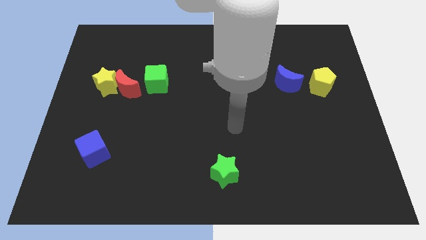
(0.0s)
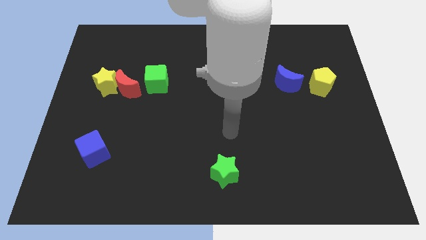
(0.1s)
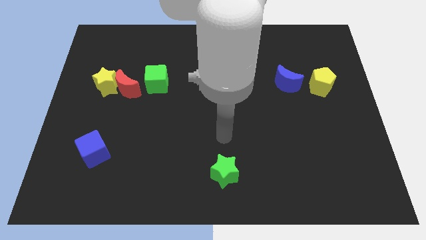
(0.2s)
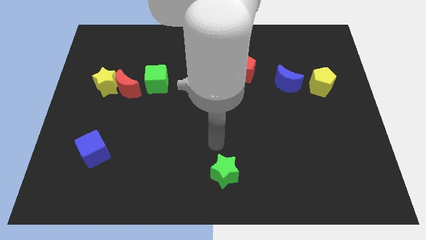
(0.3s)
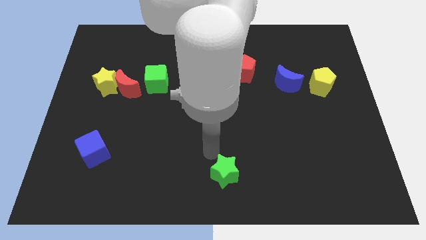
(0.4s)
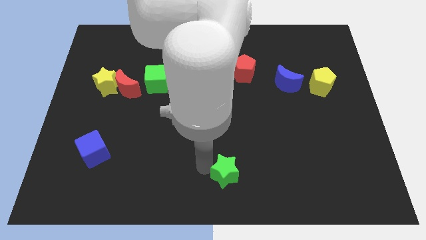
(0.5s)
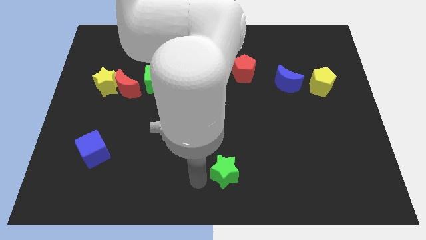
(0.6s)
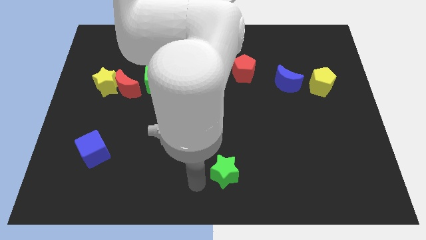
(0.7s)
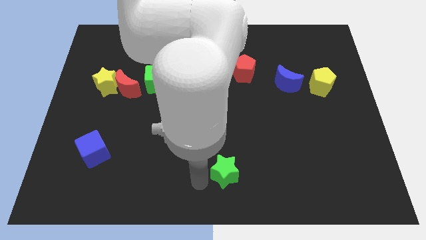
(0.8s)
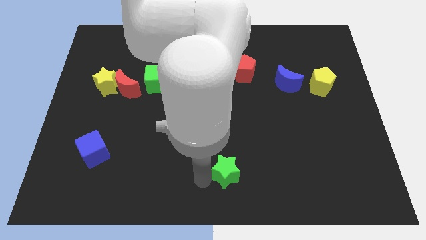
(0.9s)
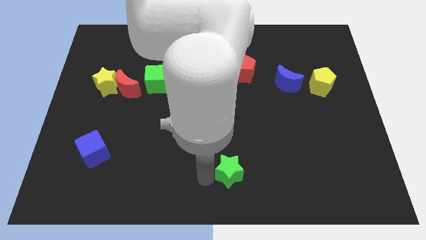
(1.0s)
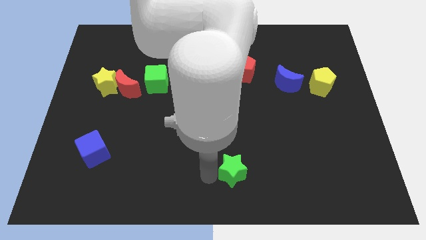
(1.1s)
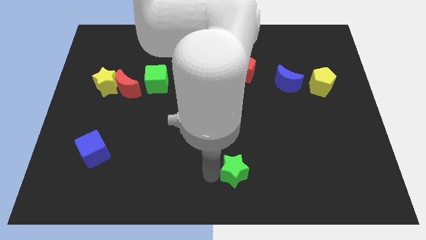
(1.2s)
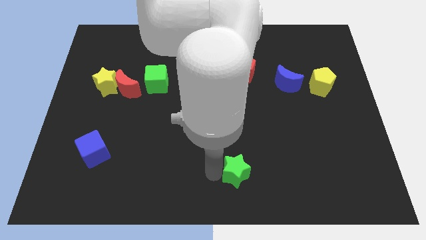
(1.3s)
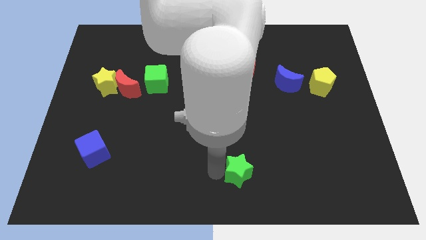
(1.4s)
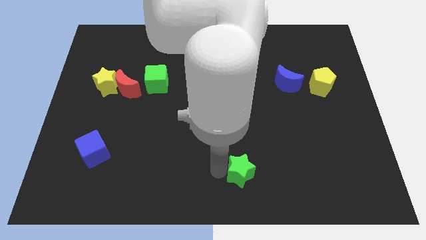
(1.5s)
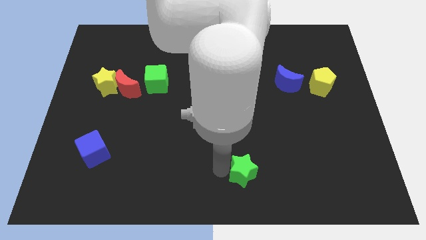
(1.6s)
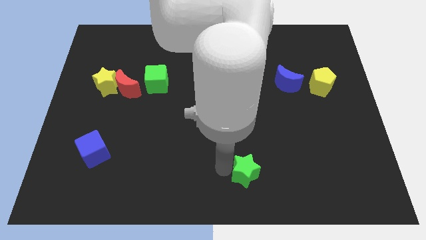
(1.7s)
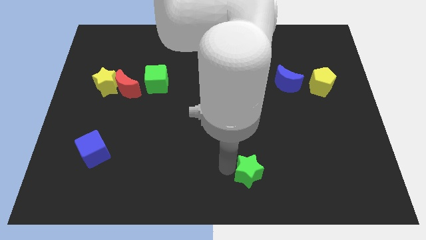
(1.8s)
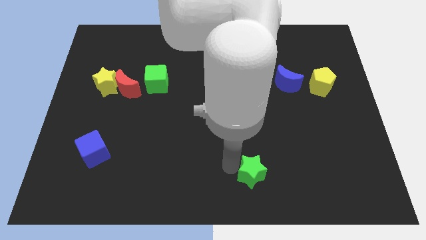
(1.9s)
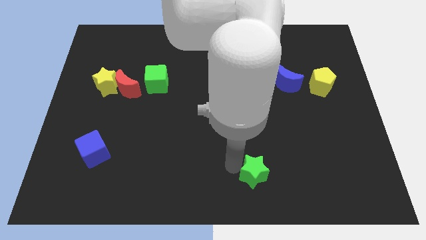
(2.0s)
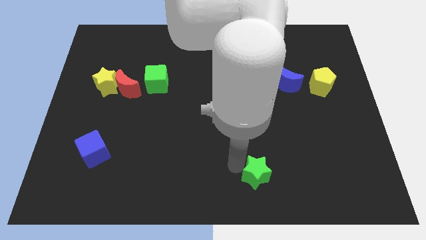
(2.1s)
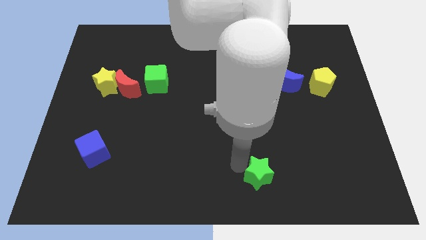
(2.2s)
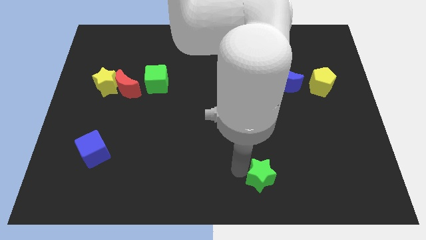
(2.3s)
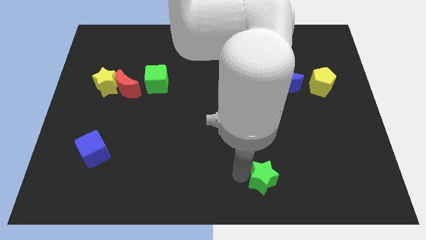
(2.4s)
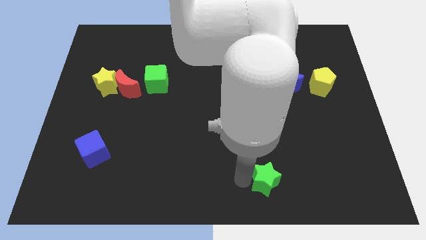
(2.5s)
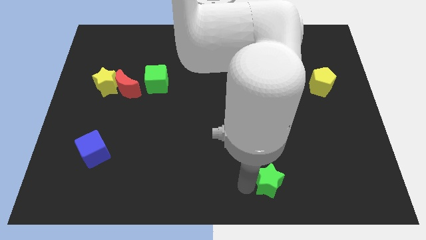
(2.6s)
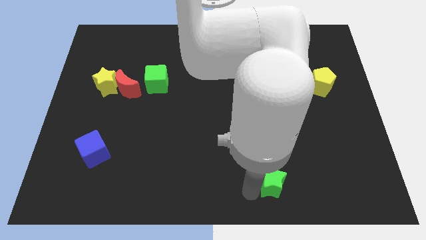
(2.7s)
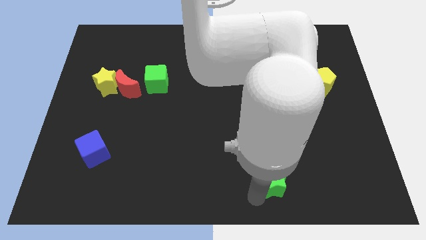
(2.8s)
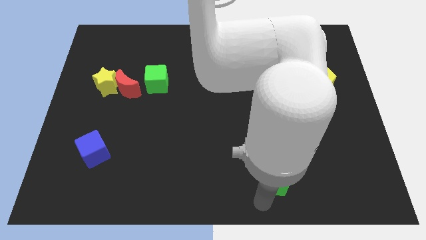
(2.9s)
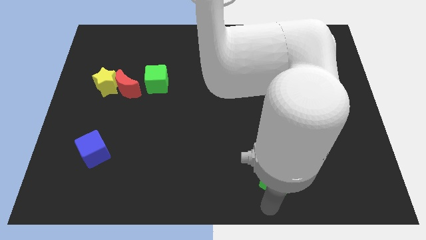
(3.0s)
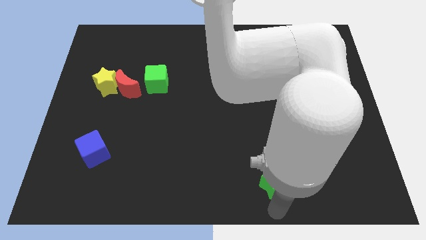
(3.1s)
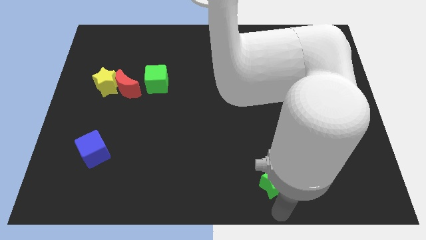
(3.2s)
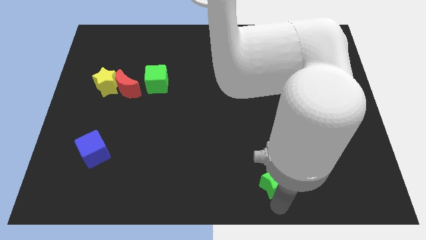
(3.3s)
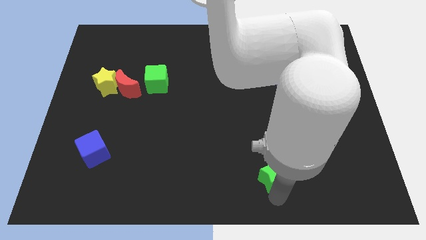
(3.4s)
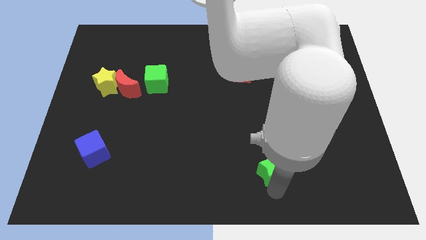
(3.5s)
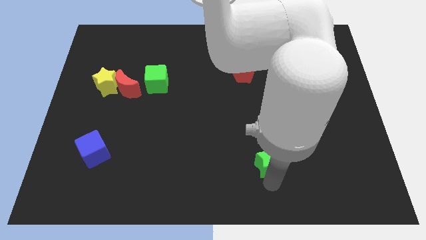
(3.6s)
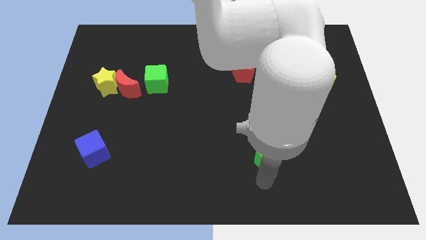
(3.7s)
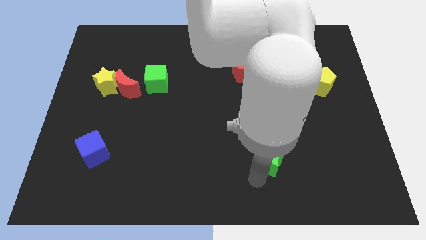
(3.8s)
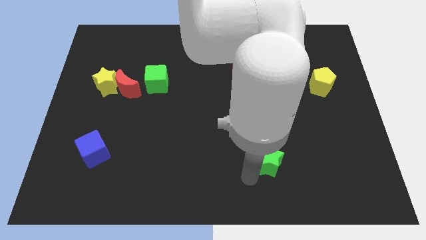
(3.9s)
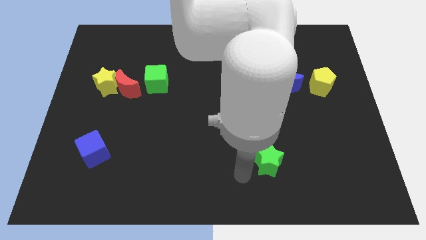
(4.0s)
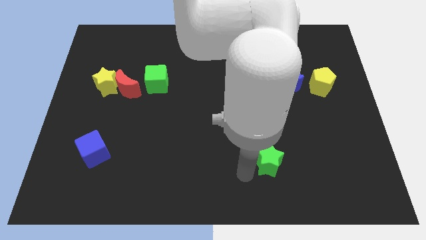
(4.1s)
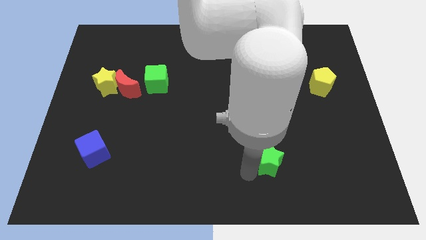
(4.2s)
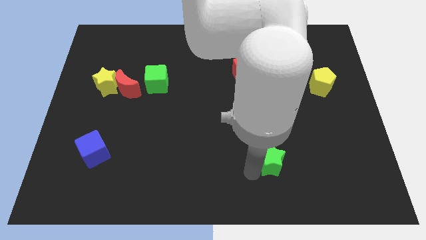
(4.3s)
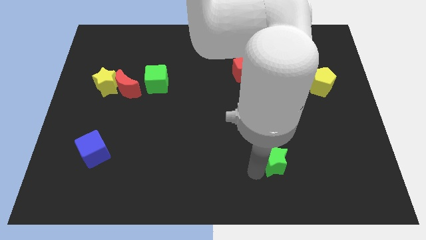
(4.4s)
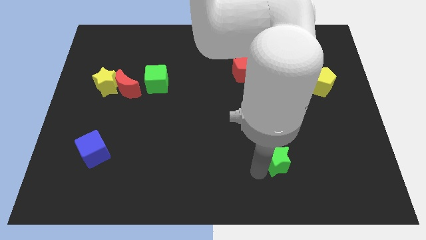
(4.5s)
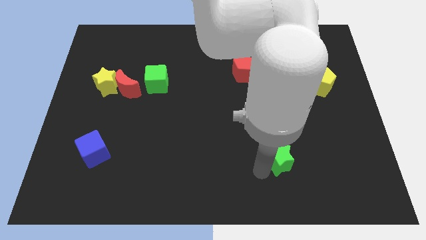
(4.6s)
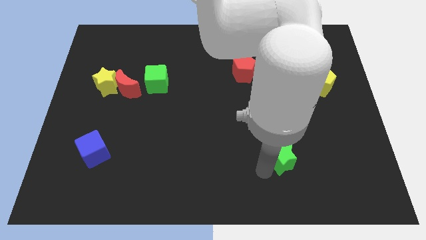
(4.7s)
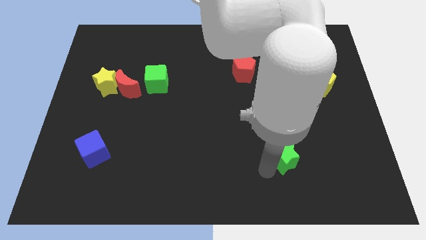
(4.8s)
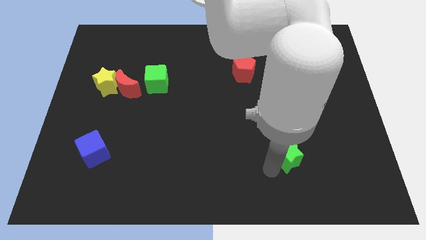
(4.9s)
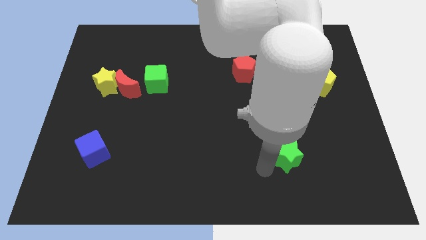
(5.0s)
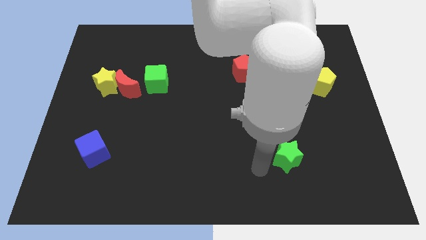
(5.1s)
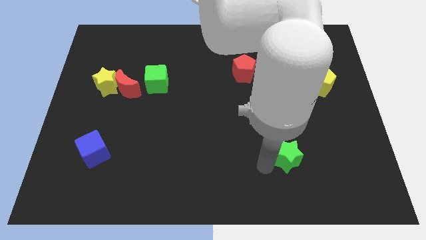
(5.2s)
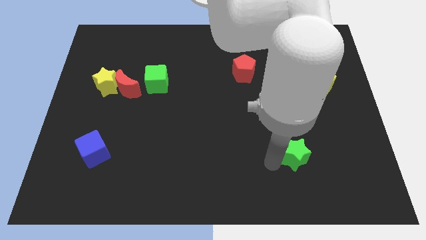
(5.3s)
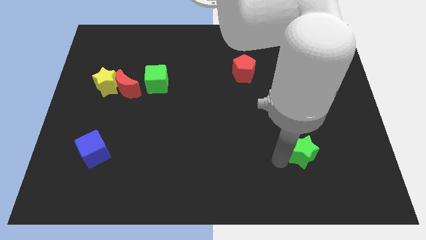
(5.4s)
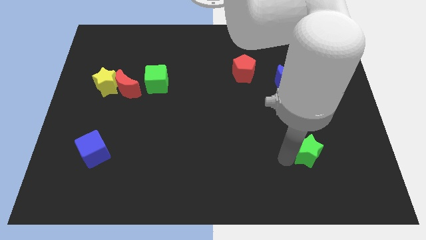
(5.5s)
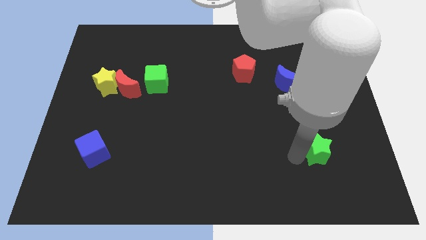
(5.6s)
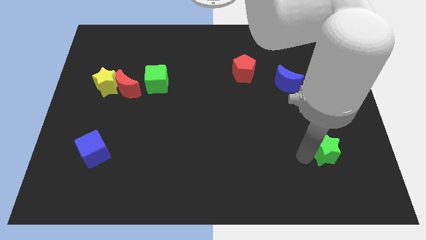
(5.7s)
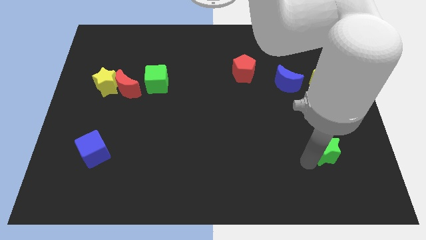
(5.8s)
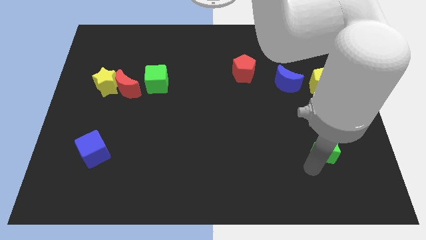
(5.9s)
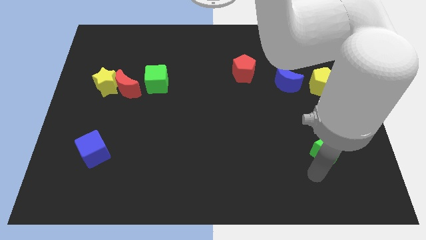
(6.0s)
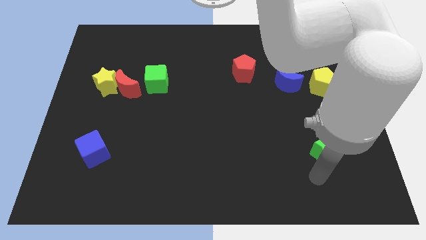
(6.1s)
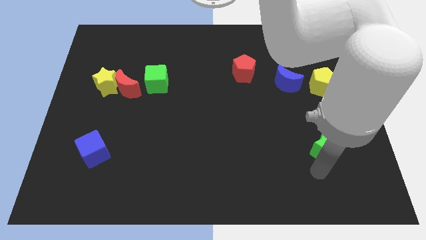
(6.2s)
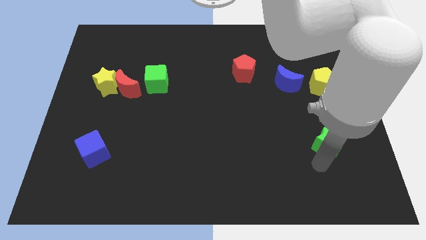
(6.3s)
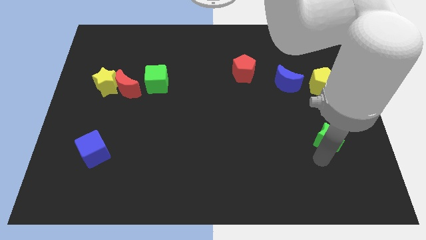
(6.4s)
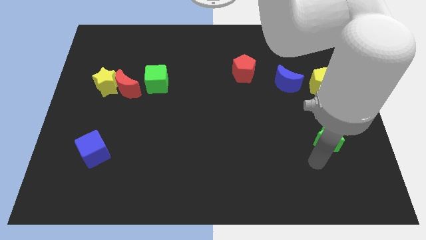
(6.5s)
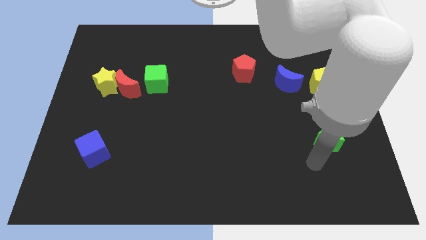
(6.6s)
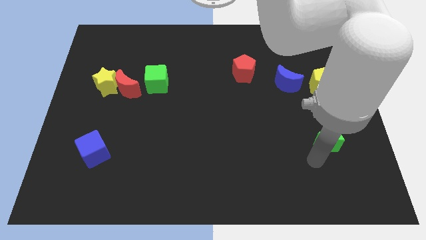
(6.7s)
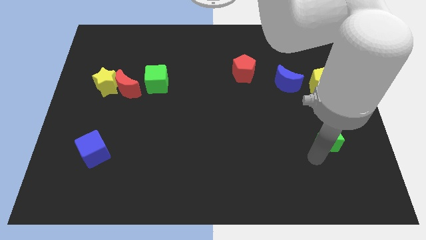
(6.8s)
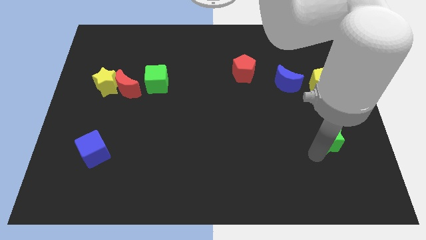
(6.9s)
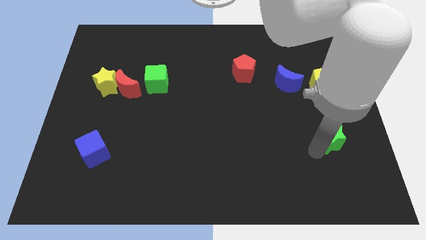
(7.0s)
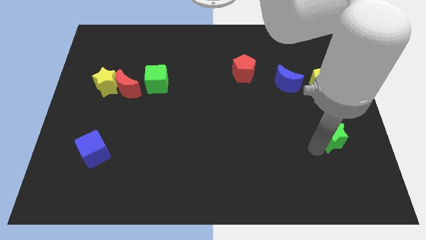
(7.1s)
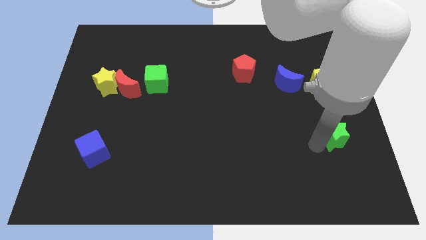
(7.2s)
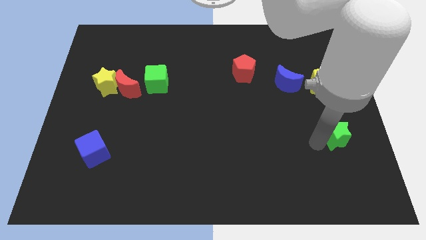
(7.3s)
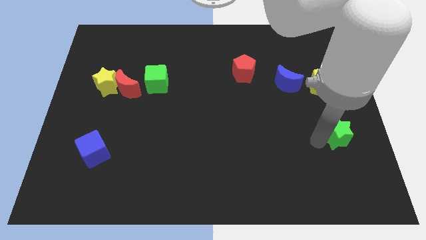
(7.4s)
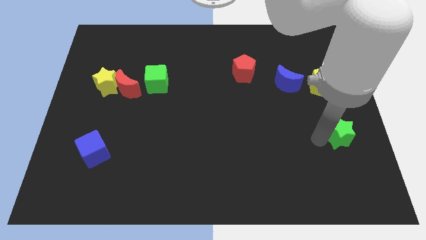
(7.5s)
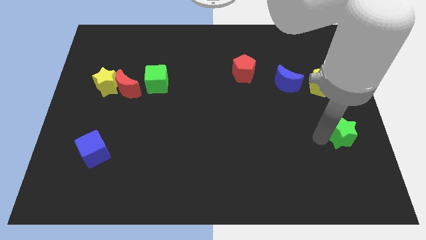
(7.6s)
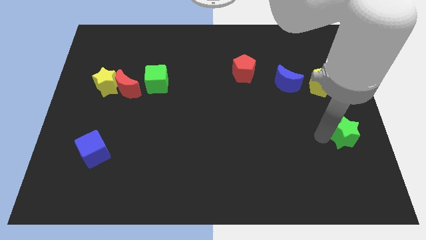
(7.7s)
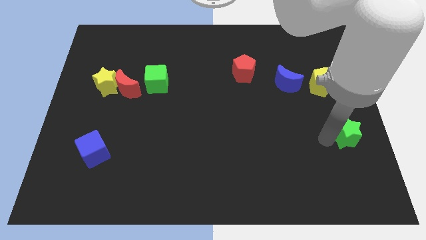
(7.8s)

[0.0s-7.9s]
slide the green star to the right side
